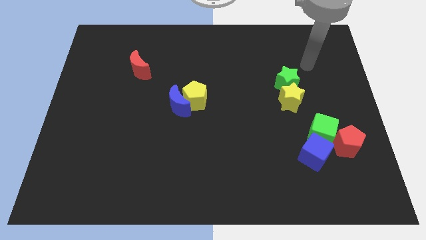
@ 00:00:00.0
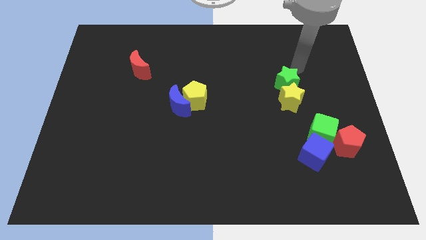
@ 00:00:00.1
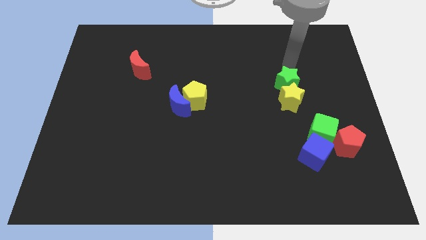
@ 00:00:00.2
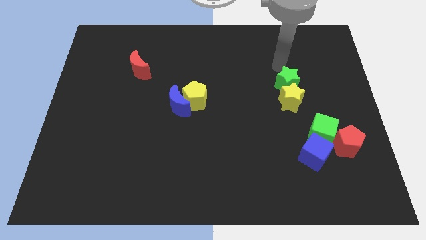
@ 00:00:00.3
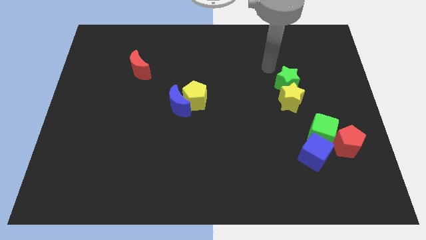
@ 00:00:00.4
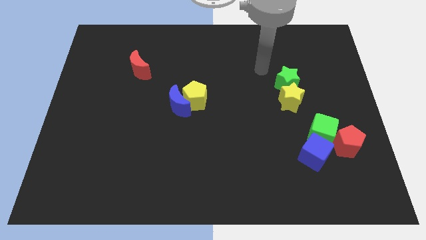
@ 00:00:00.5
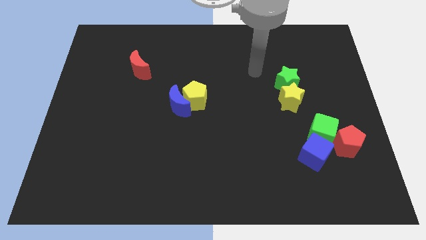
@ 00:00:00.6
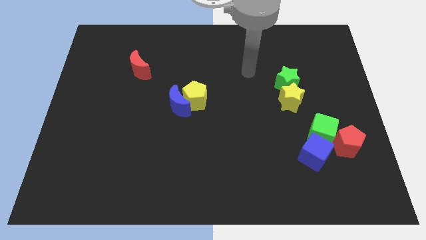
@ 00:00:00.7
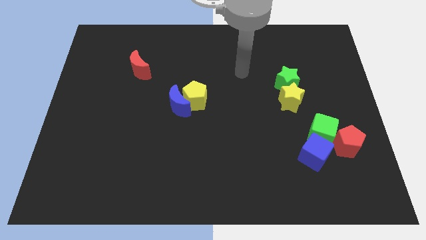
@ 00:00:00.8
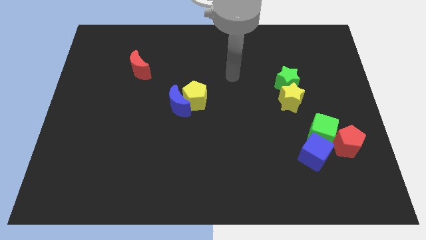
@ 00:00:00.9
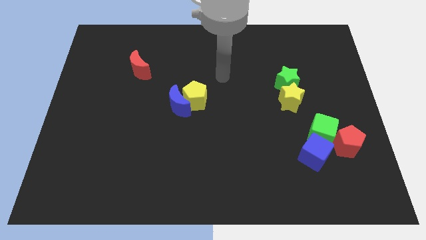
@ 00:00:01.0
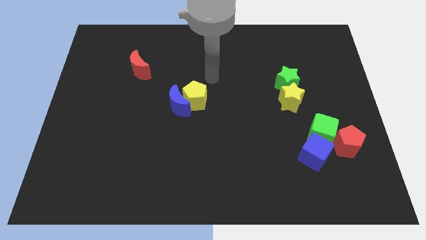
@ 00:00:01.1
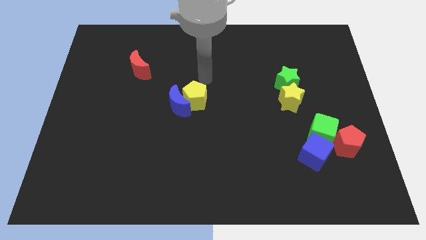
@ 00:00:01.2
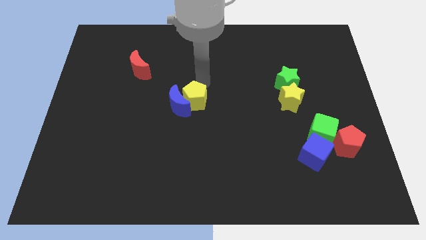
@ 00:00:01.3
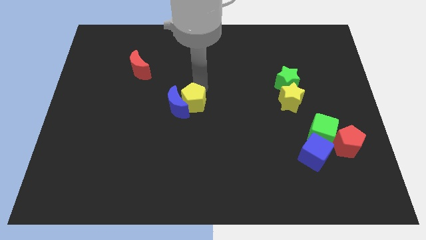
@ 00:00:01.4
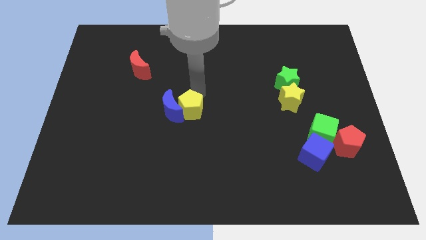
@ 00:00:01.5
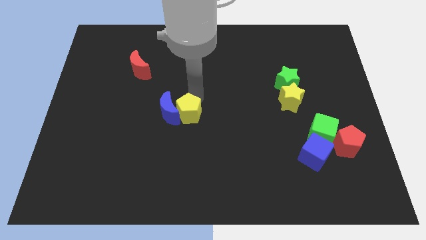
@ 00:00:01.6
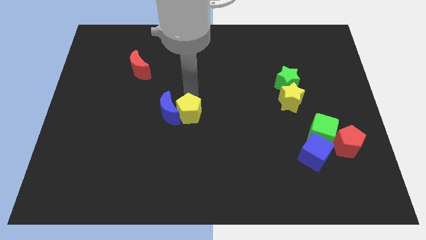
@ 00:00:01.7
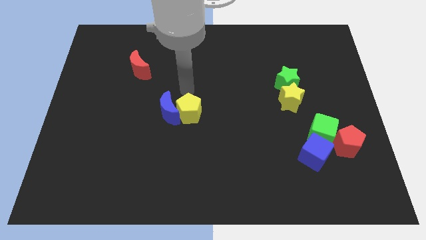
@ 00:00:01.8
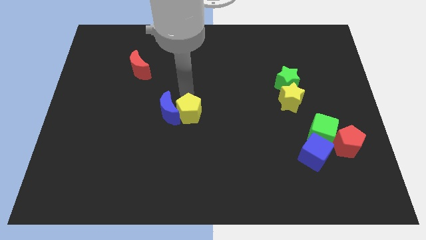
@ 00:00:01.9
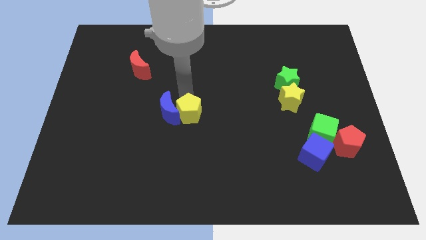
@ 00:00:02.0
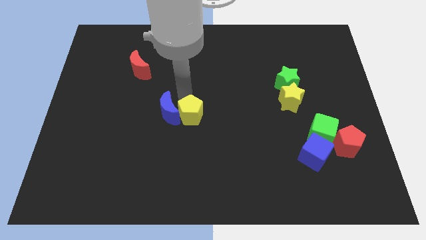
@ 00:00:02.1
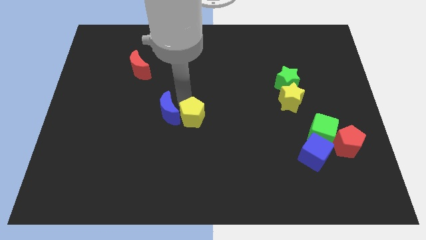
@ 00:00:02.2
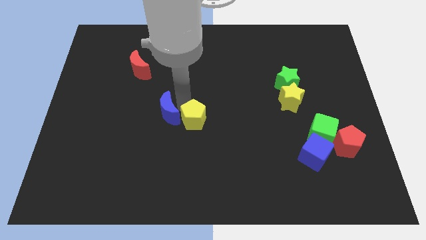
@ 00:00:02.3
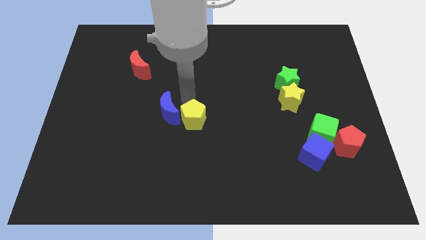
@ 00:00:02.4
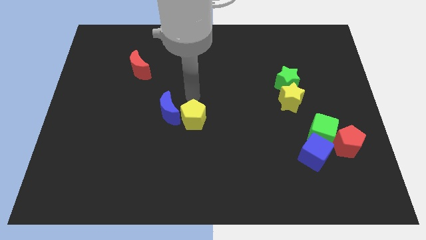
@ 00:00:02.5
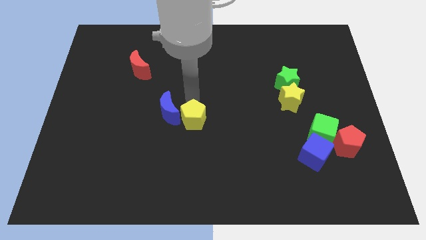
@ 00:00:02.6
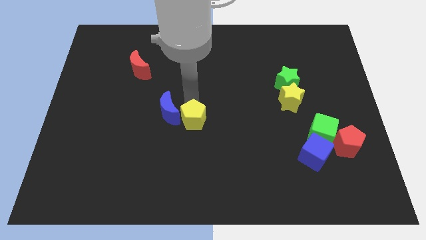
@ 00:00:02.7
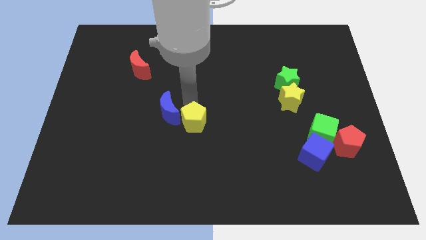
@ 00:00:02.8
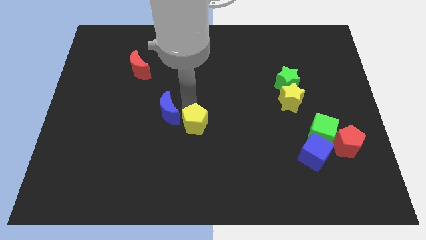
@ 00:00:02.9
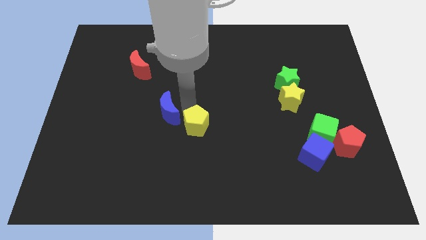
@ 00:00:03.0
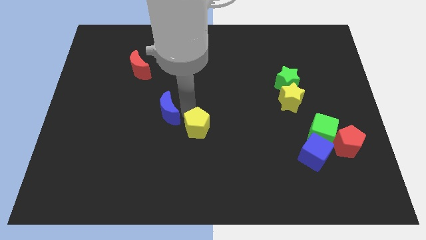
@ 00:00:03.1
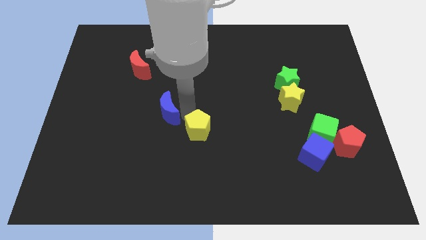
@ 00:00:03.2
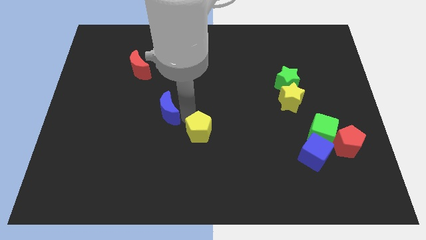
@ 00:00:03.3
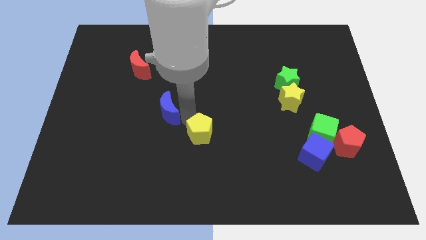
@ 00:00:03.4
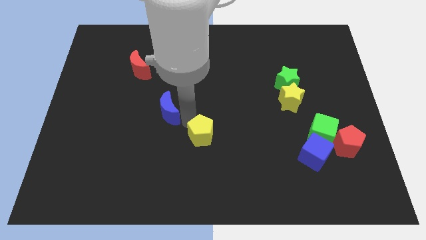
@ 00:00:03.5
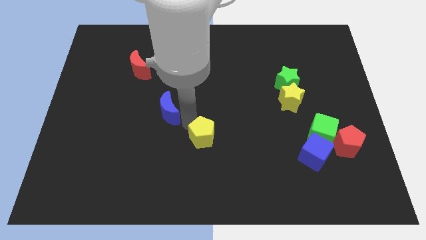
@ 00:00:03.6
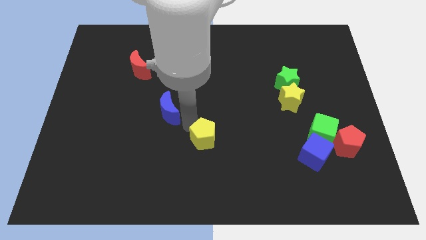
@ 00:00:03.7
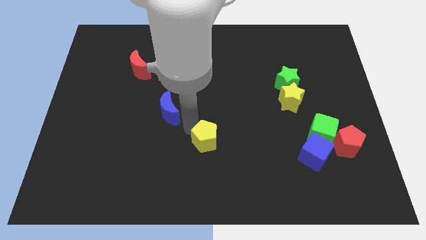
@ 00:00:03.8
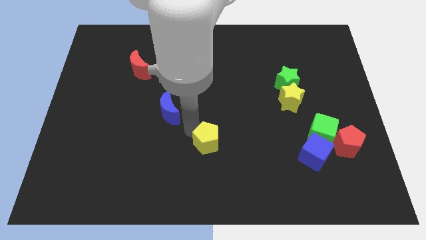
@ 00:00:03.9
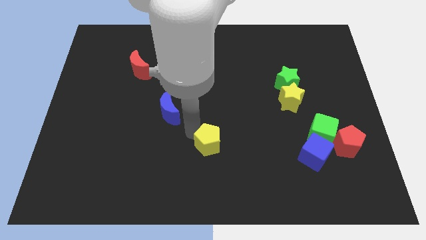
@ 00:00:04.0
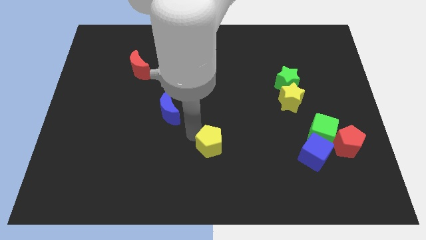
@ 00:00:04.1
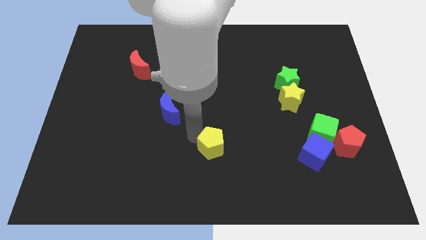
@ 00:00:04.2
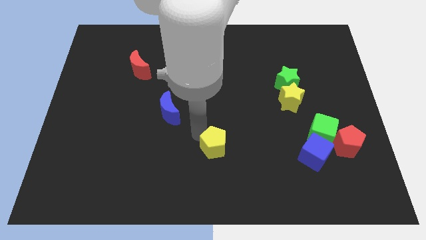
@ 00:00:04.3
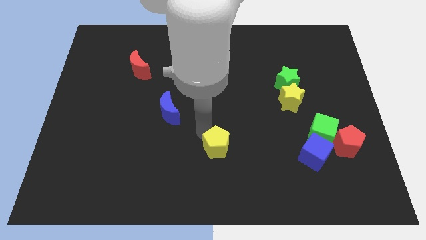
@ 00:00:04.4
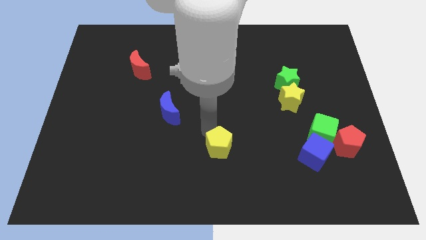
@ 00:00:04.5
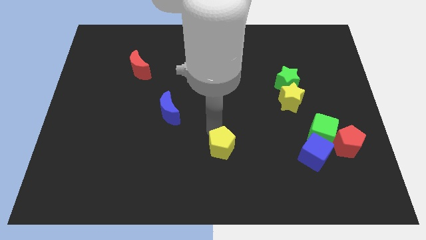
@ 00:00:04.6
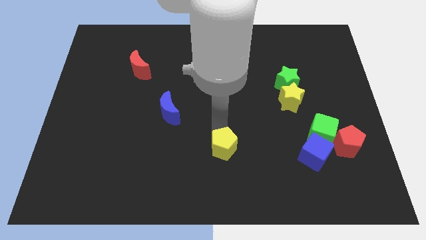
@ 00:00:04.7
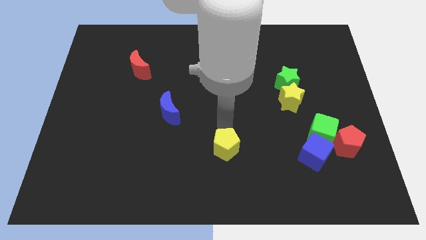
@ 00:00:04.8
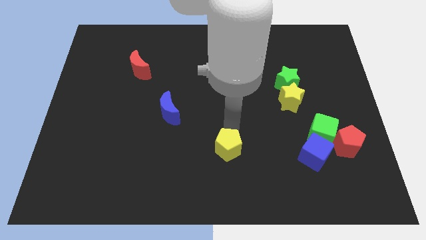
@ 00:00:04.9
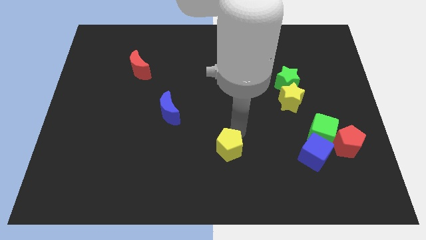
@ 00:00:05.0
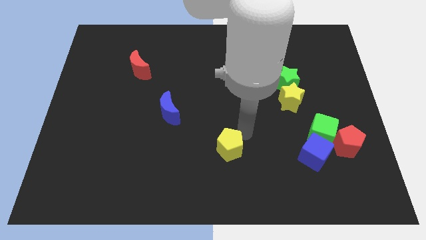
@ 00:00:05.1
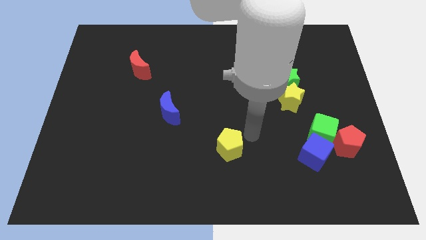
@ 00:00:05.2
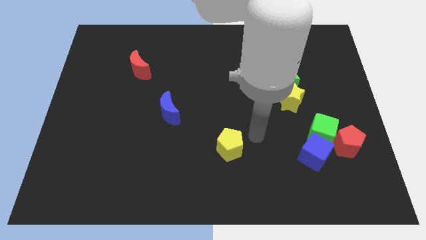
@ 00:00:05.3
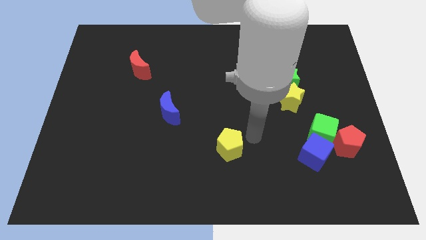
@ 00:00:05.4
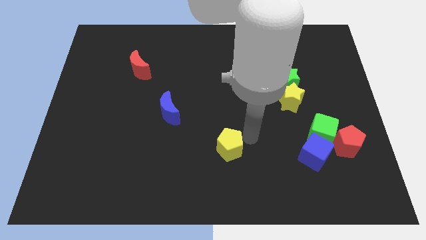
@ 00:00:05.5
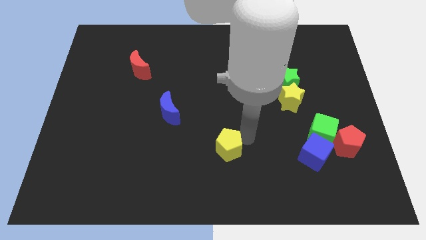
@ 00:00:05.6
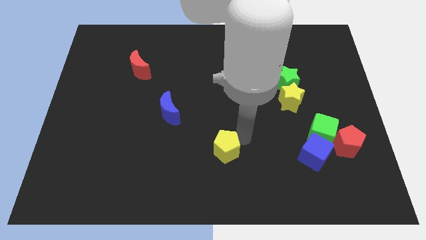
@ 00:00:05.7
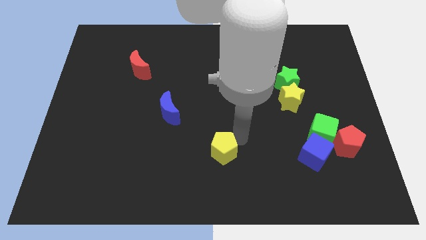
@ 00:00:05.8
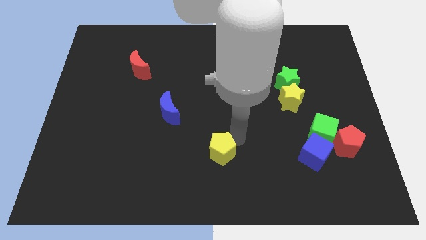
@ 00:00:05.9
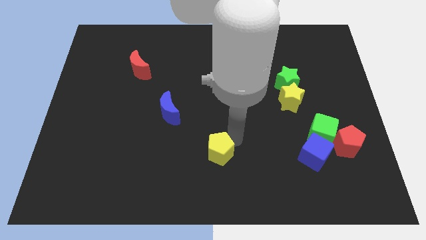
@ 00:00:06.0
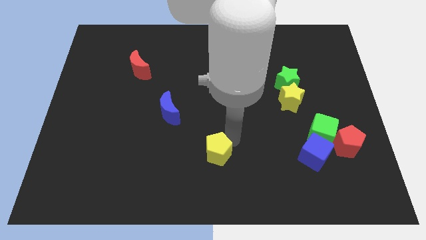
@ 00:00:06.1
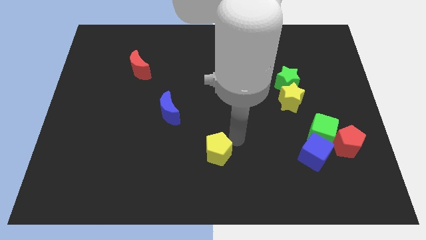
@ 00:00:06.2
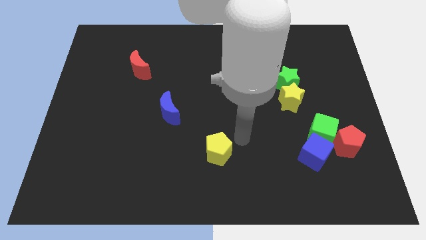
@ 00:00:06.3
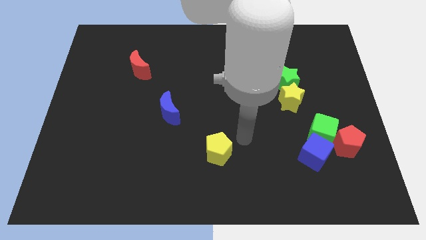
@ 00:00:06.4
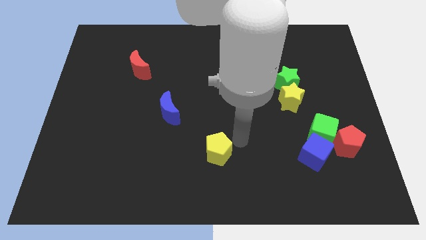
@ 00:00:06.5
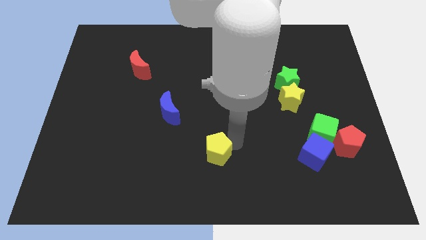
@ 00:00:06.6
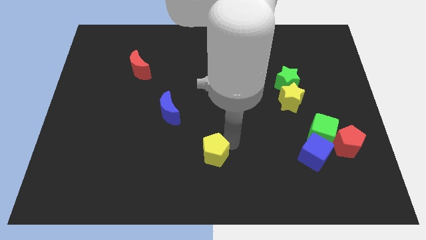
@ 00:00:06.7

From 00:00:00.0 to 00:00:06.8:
slide the yellow pentagon to the bottom side

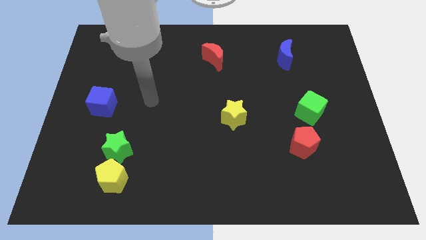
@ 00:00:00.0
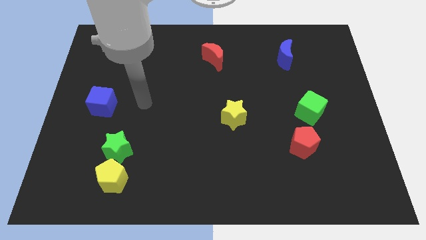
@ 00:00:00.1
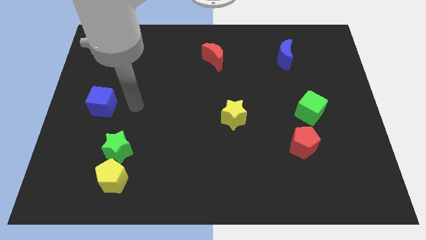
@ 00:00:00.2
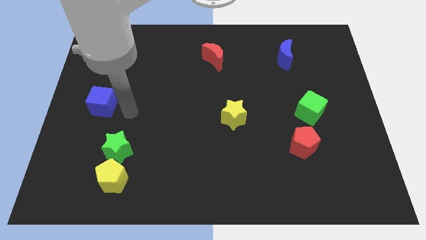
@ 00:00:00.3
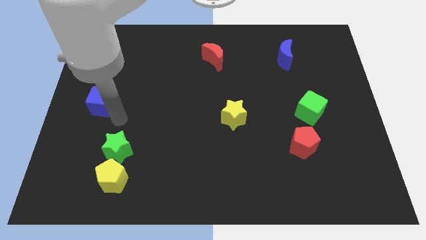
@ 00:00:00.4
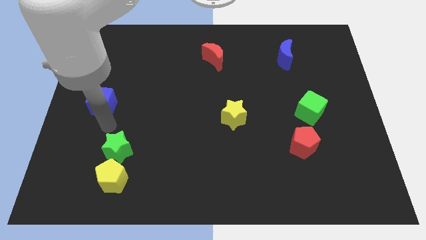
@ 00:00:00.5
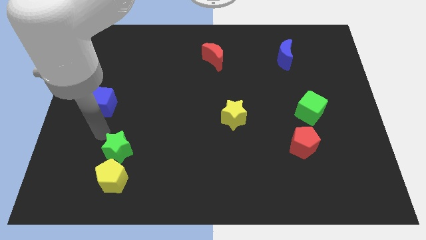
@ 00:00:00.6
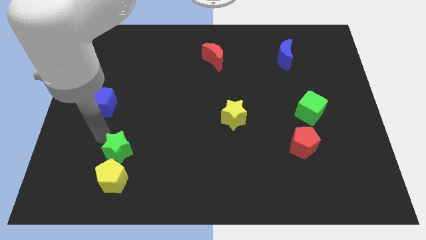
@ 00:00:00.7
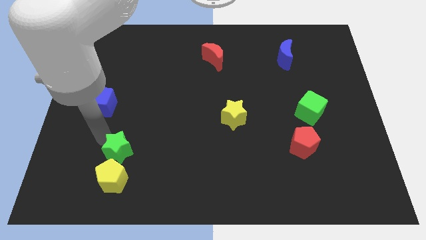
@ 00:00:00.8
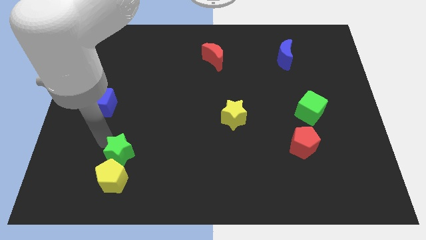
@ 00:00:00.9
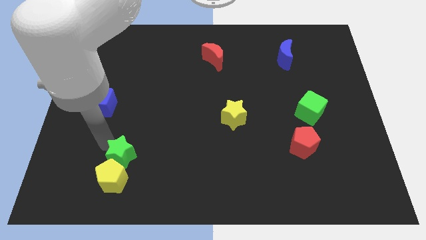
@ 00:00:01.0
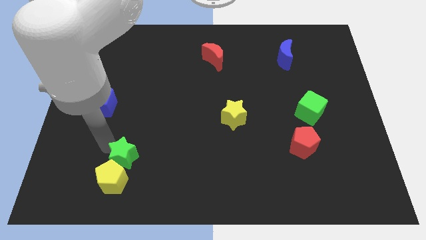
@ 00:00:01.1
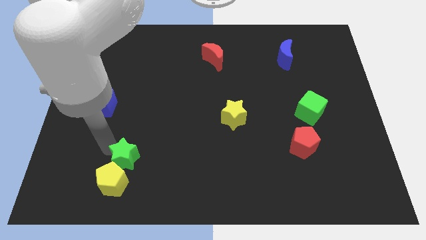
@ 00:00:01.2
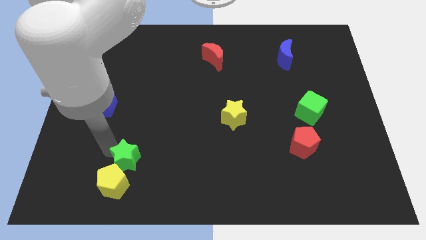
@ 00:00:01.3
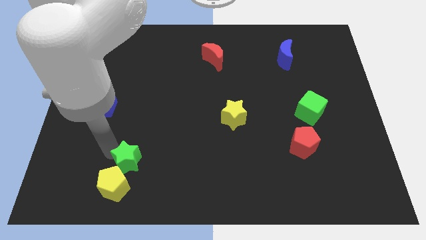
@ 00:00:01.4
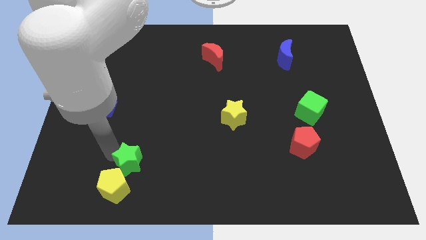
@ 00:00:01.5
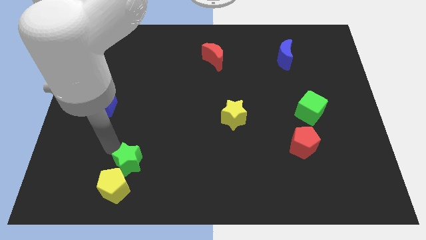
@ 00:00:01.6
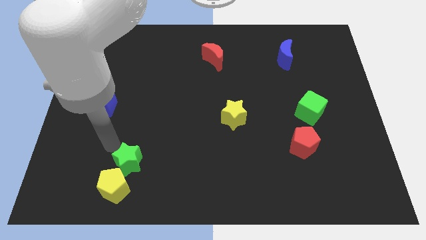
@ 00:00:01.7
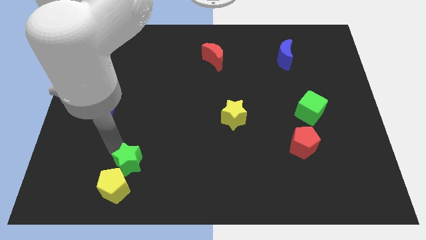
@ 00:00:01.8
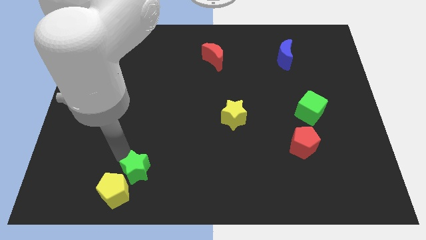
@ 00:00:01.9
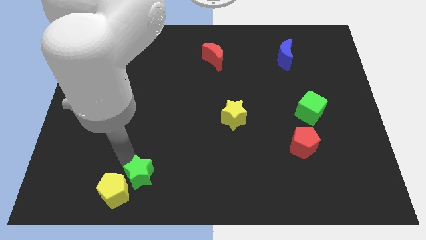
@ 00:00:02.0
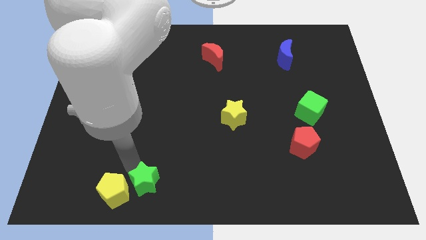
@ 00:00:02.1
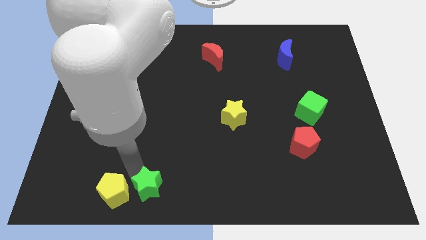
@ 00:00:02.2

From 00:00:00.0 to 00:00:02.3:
put the green star to the bottom
